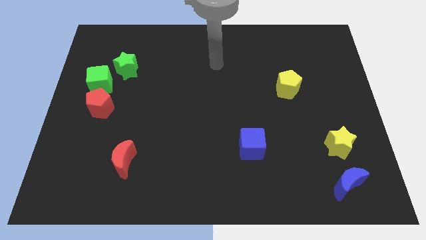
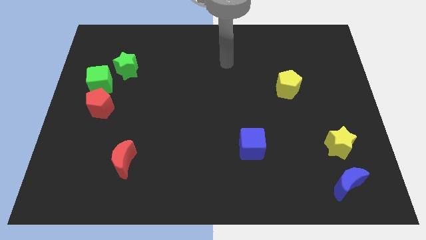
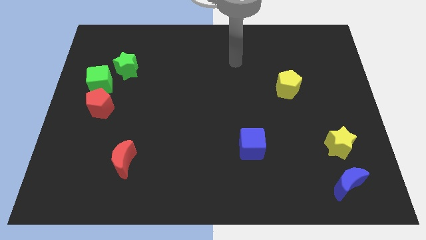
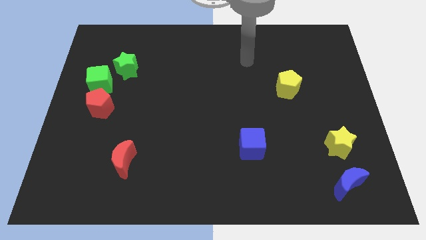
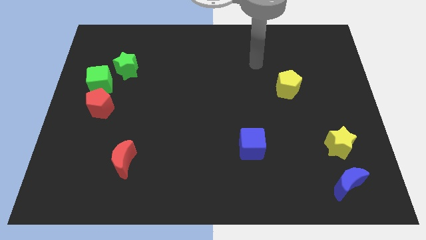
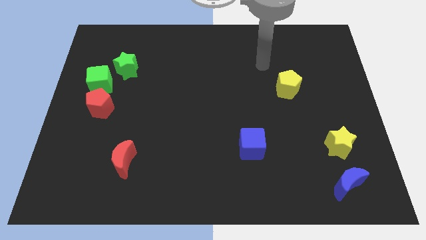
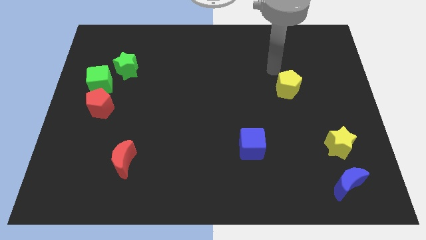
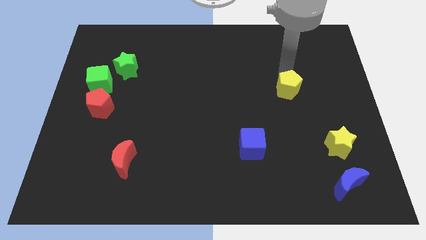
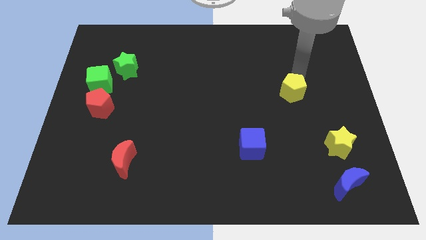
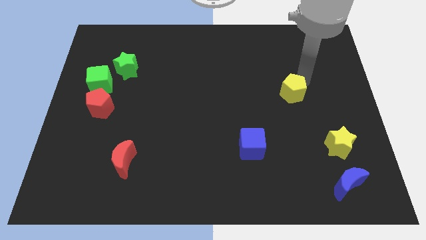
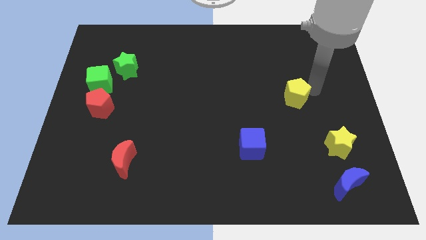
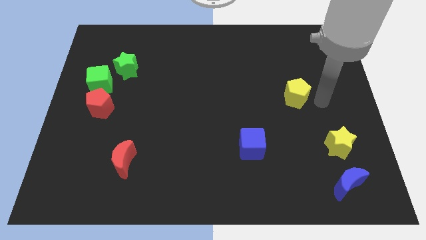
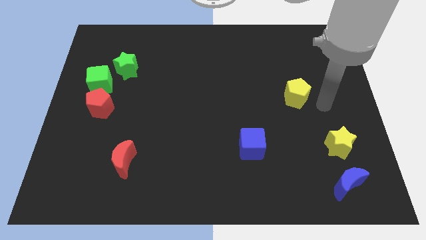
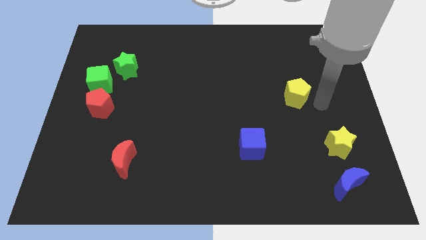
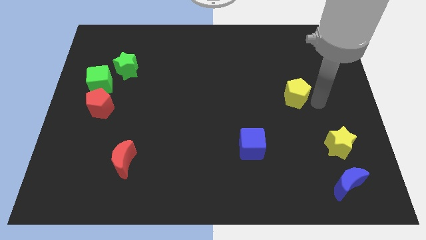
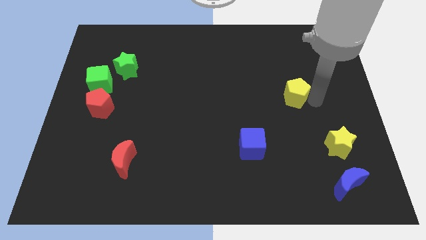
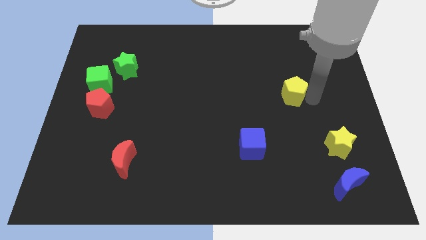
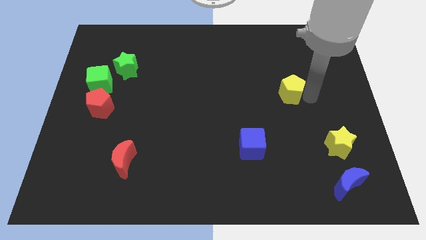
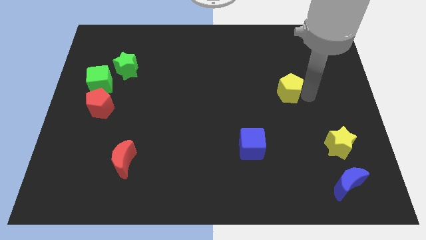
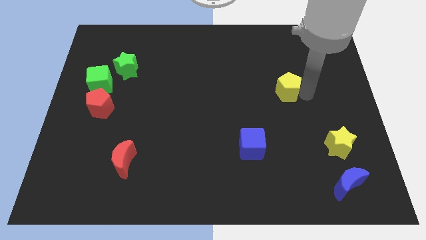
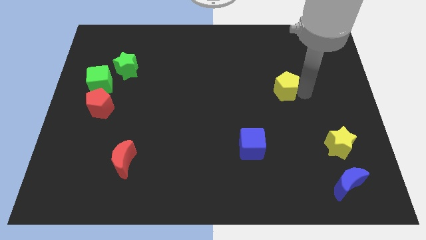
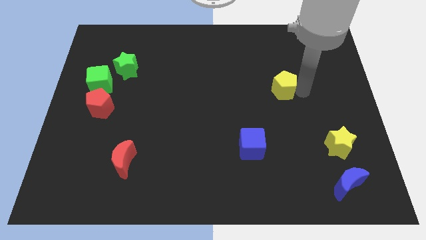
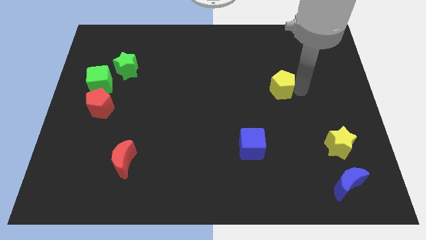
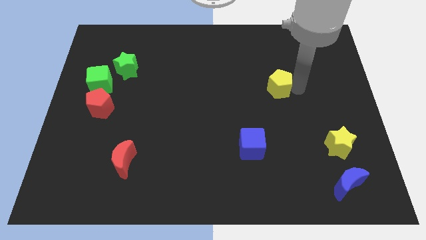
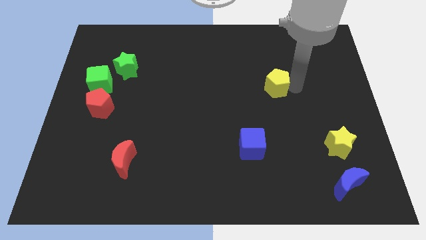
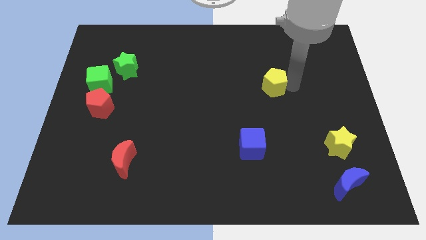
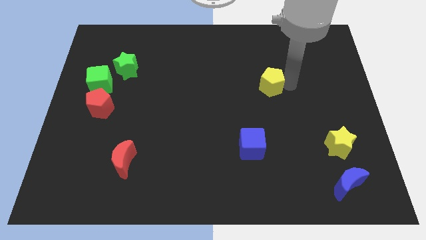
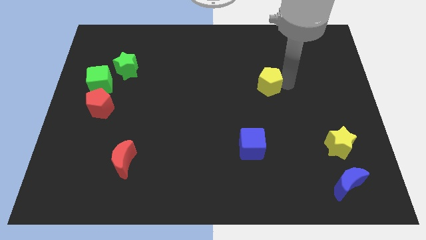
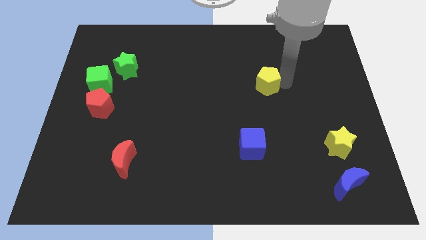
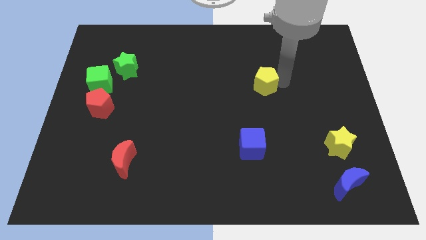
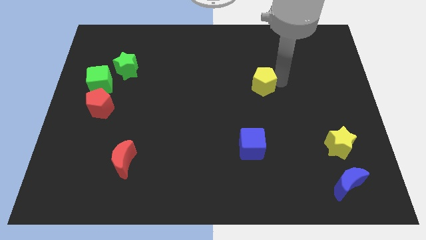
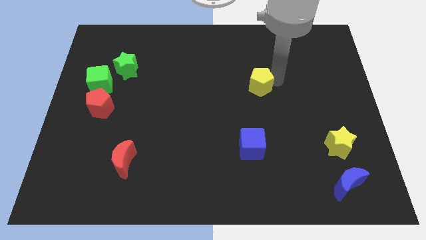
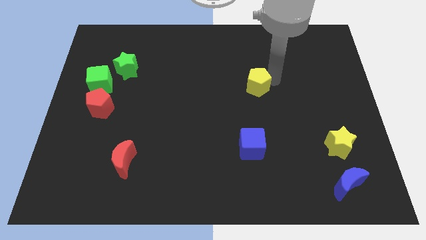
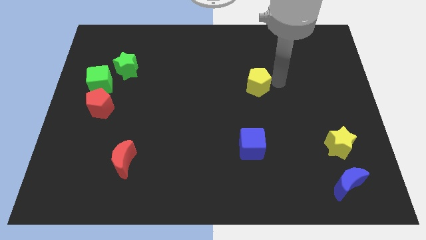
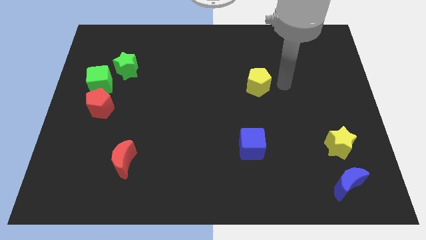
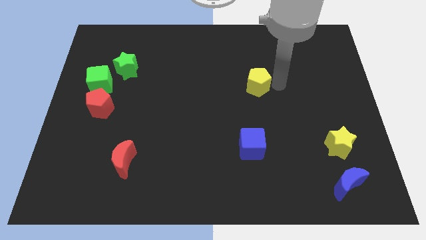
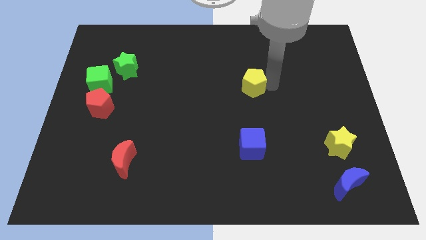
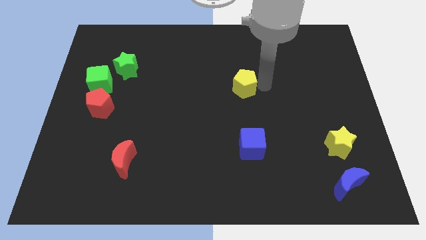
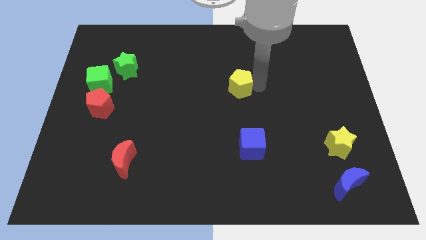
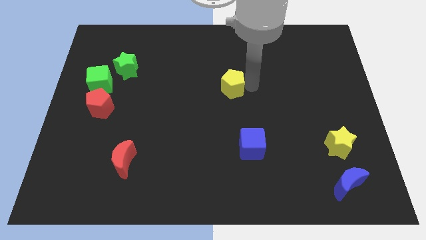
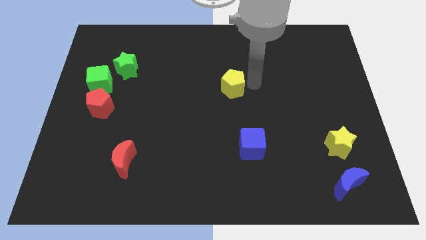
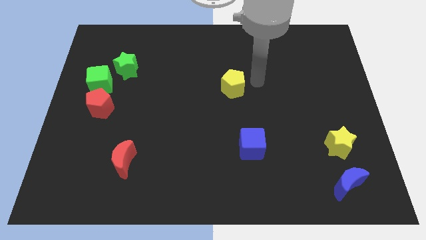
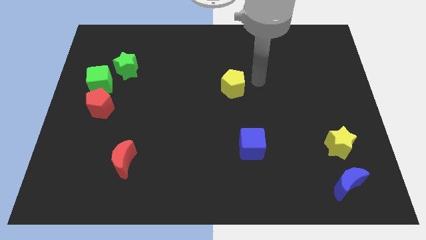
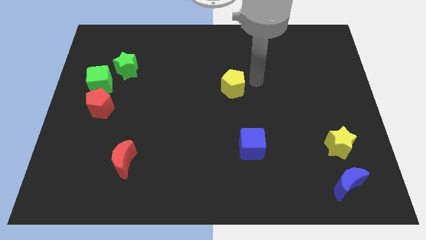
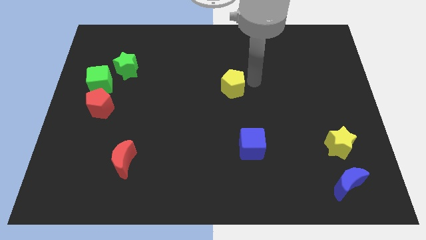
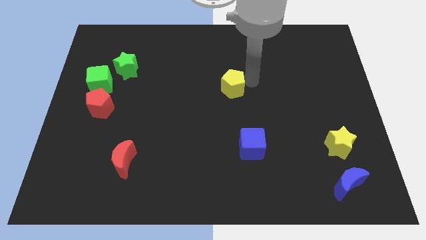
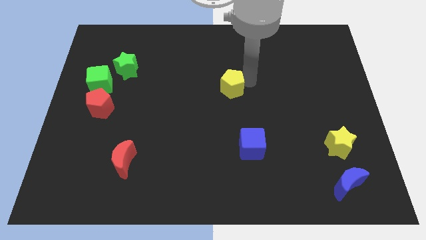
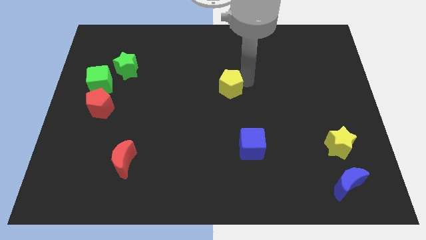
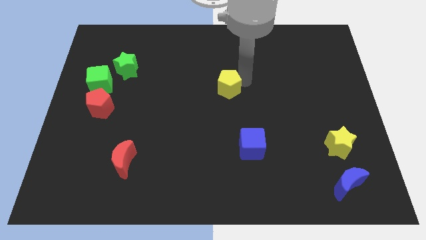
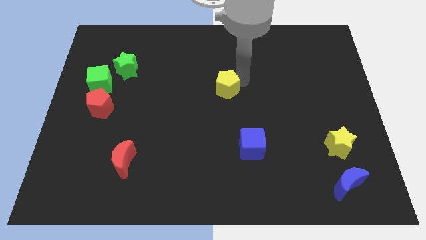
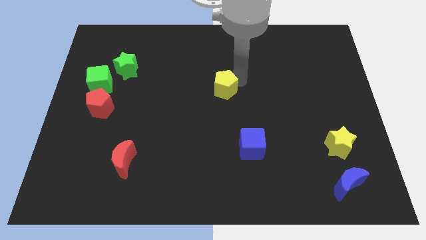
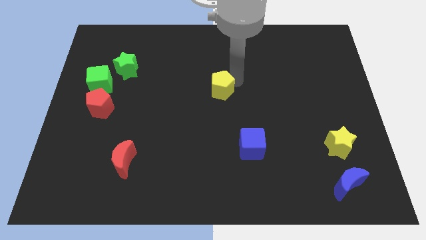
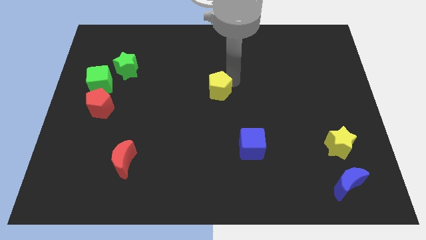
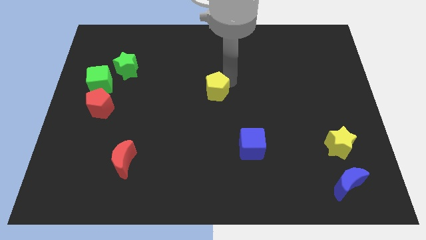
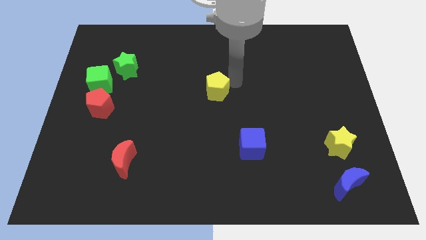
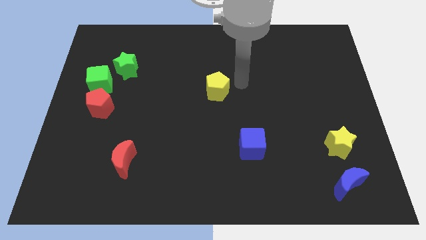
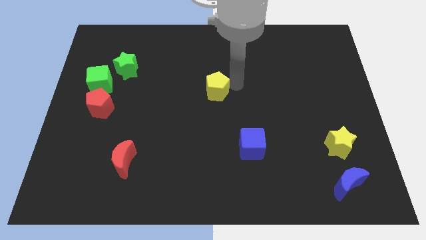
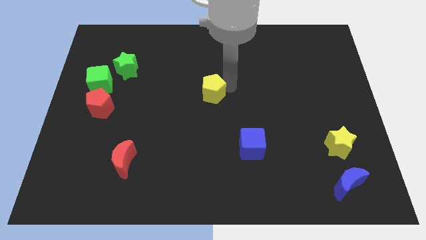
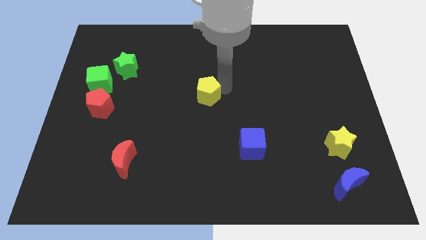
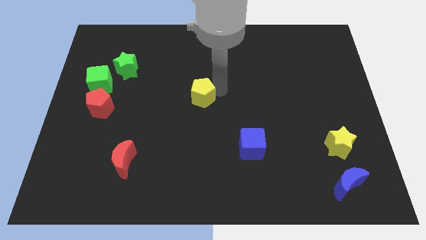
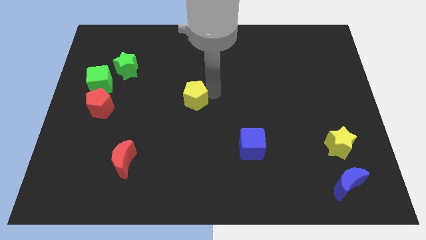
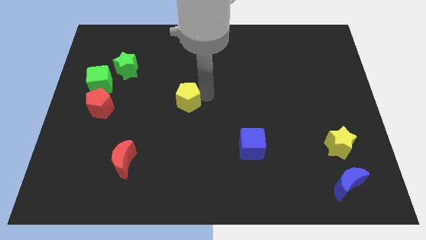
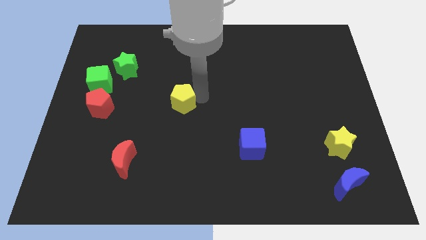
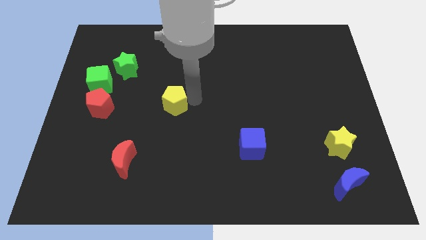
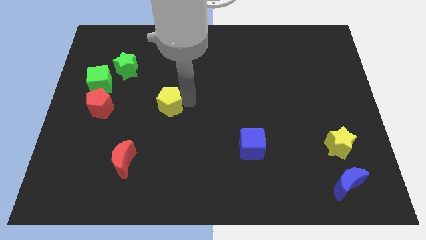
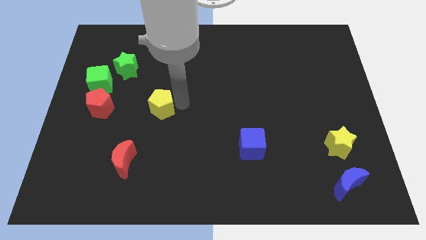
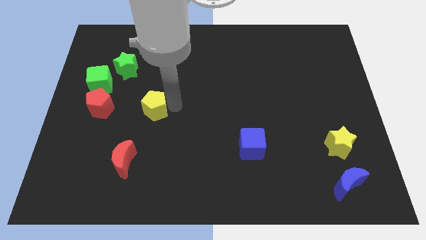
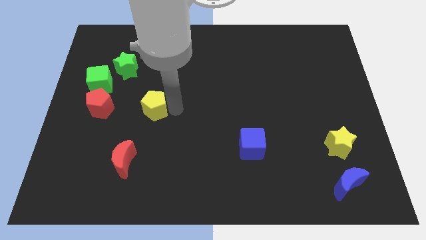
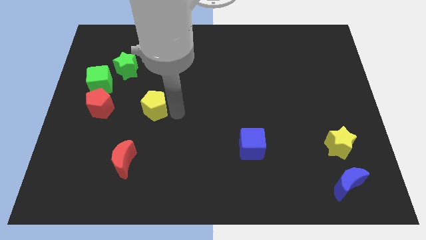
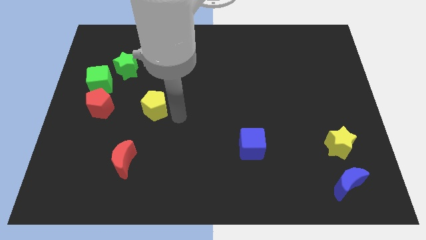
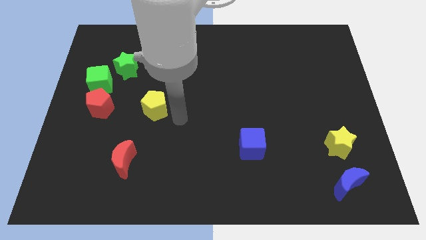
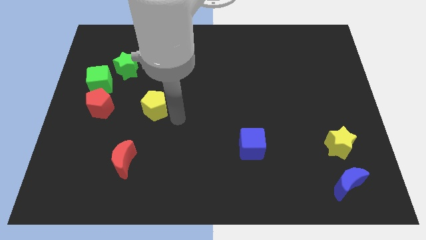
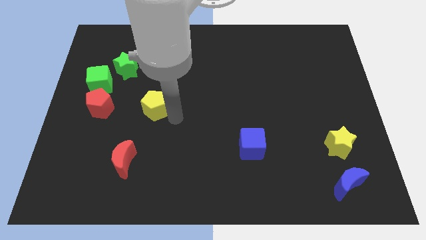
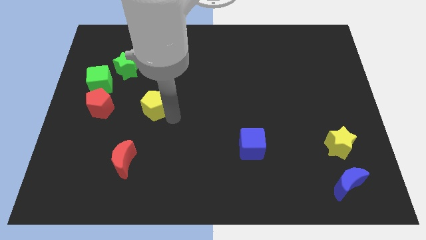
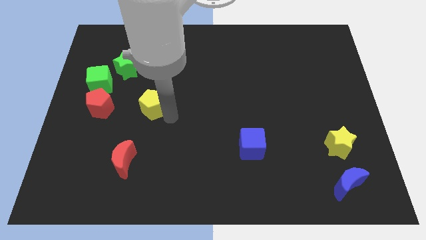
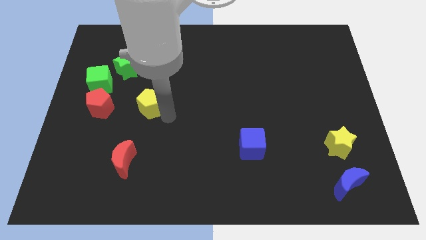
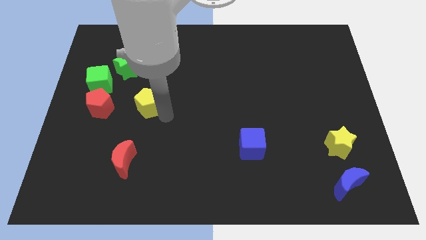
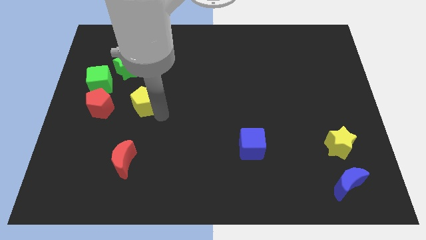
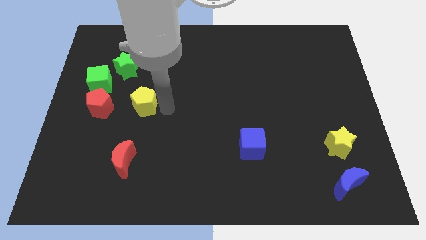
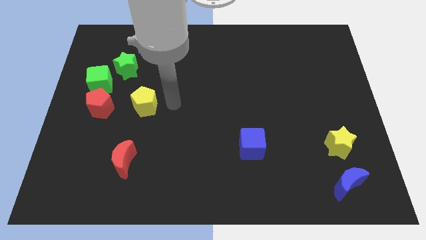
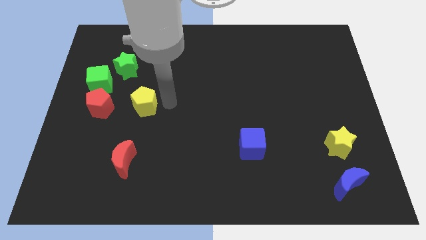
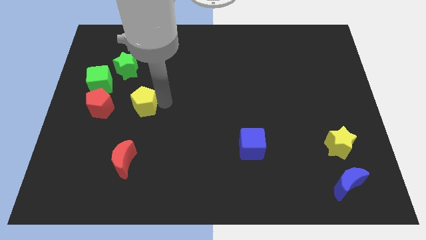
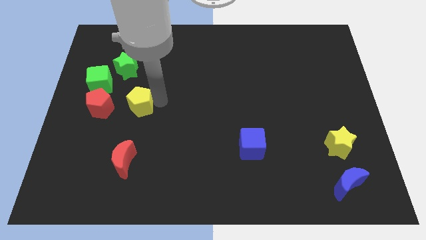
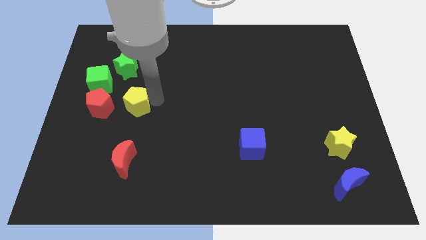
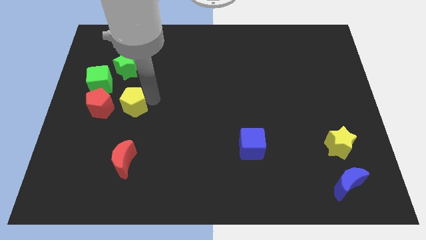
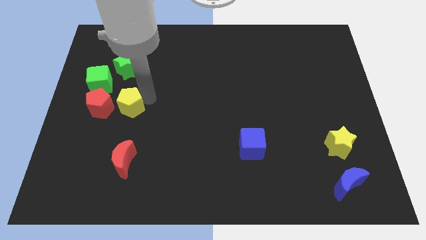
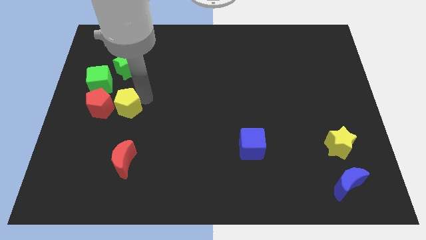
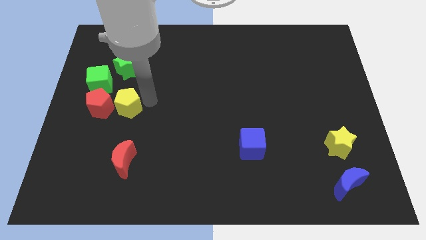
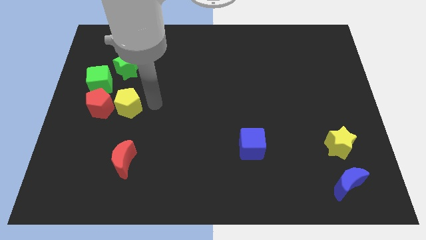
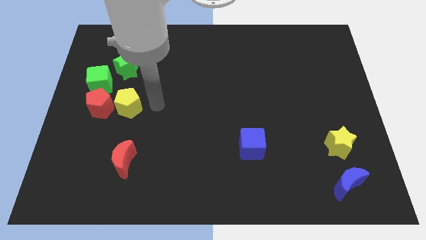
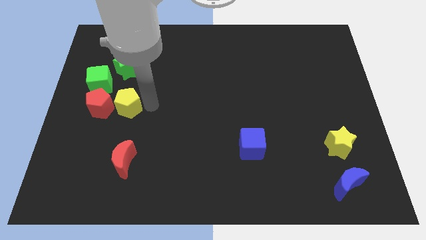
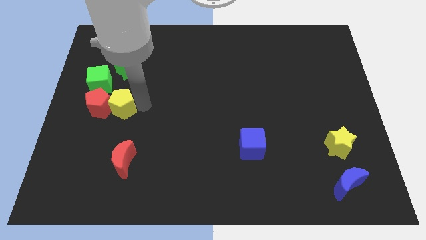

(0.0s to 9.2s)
push the yellow pentagon next to the red pentagon
